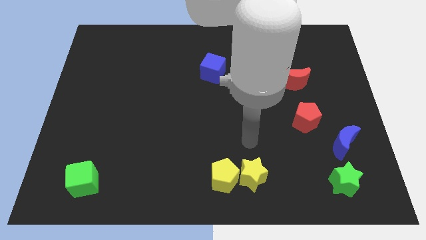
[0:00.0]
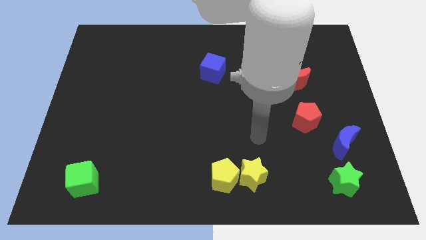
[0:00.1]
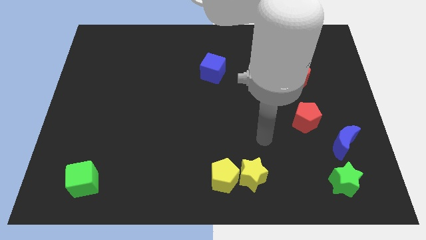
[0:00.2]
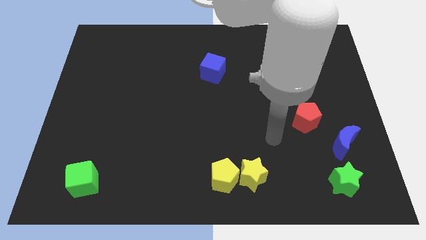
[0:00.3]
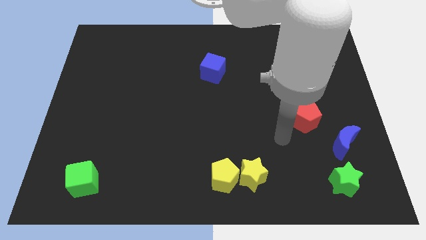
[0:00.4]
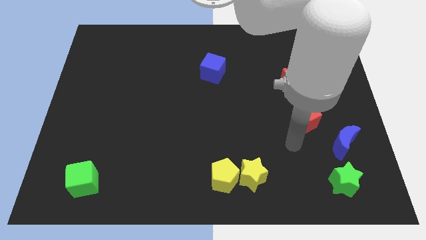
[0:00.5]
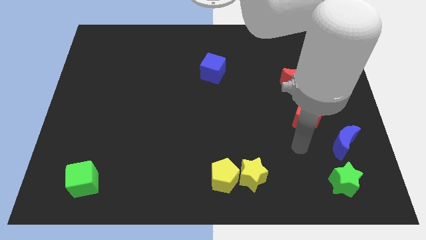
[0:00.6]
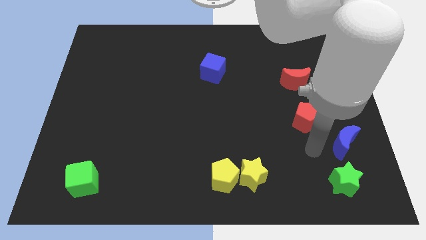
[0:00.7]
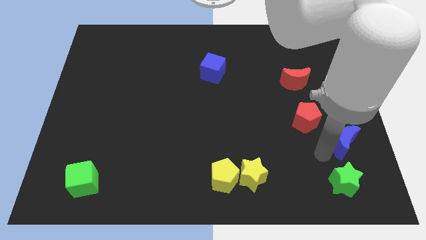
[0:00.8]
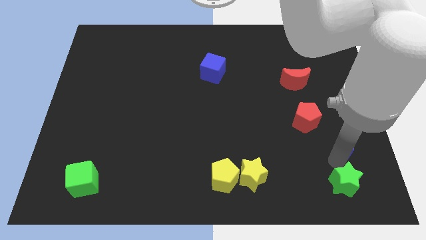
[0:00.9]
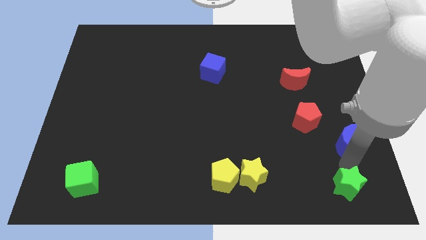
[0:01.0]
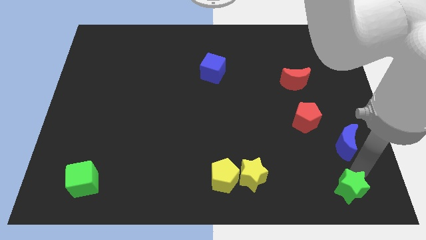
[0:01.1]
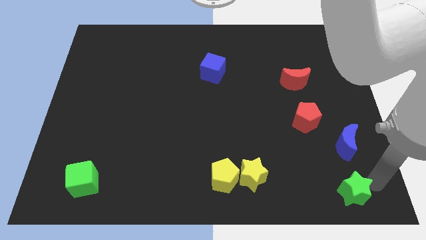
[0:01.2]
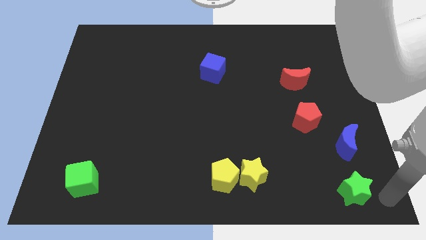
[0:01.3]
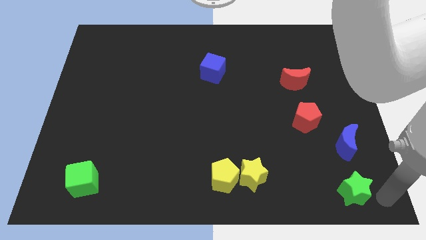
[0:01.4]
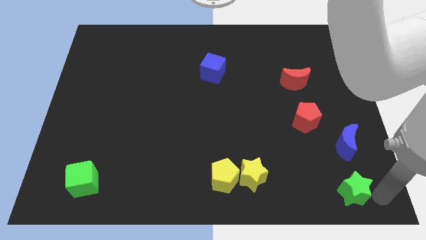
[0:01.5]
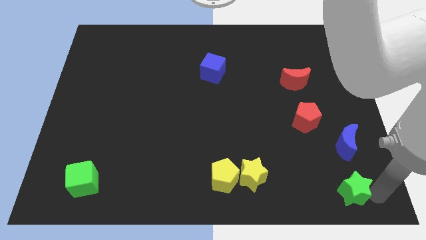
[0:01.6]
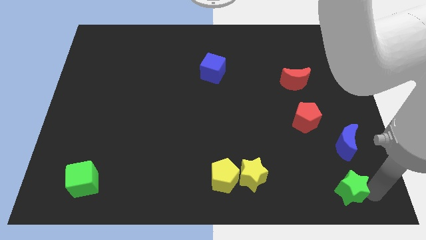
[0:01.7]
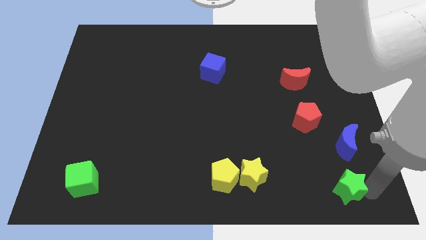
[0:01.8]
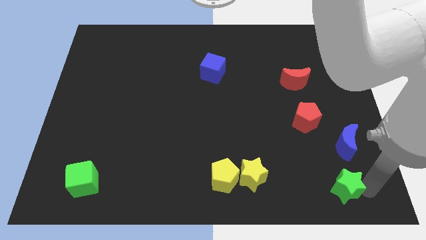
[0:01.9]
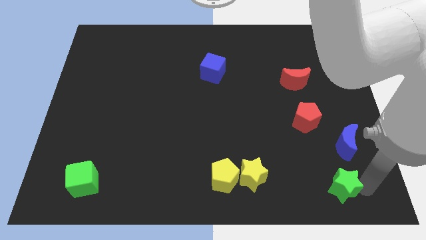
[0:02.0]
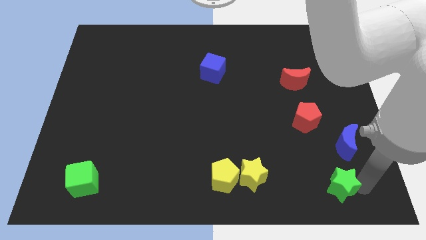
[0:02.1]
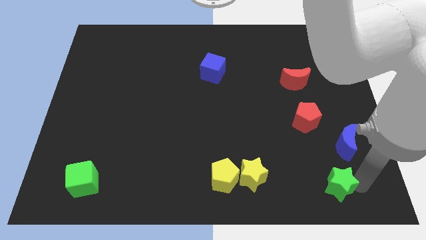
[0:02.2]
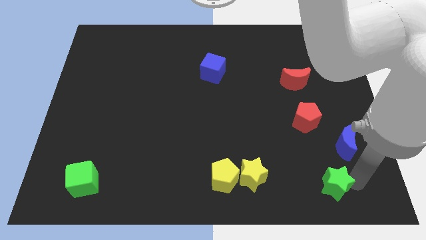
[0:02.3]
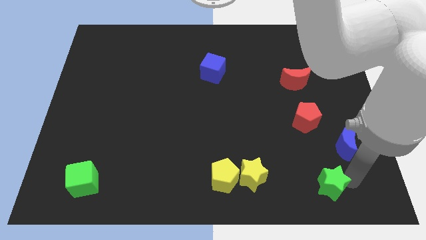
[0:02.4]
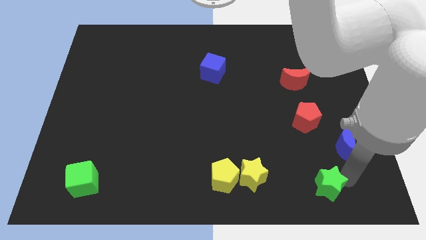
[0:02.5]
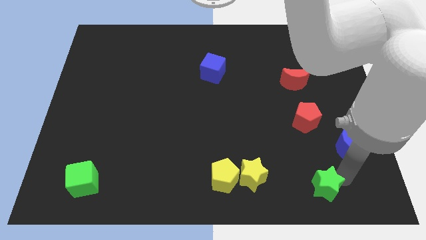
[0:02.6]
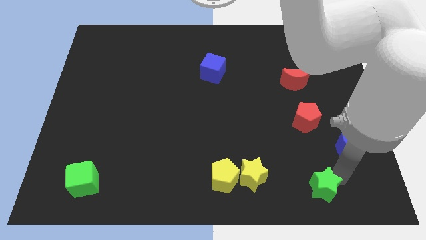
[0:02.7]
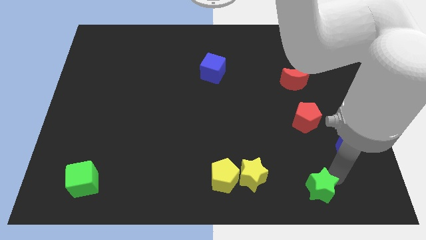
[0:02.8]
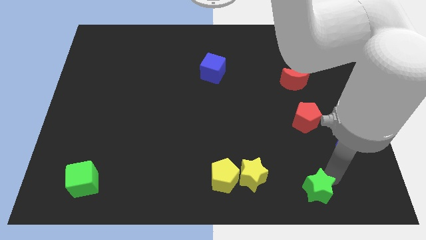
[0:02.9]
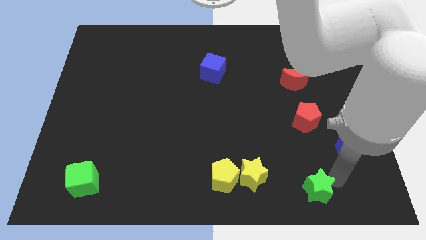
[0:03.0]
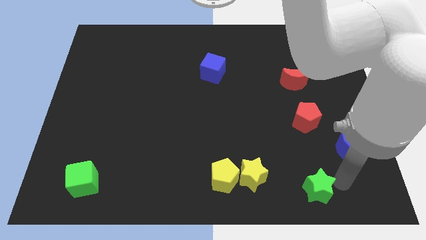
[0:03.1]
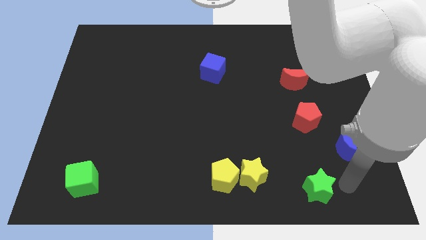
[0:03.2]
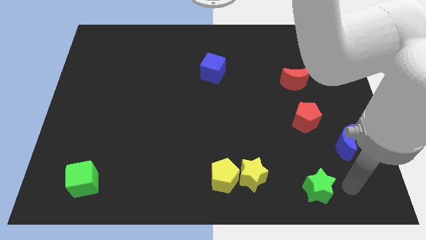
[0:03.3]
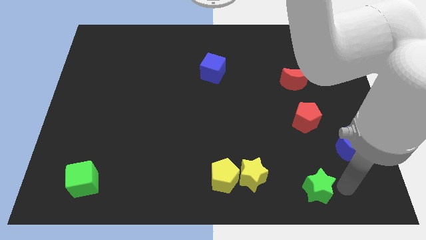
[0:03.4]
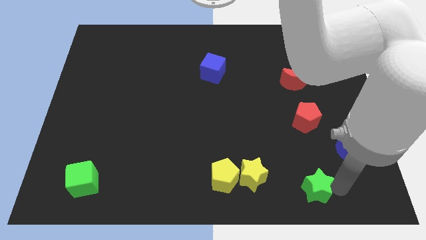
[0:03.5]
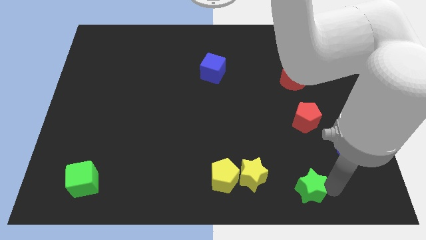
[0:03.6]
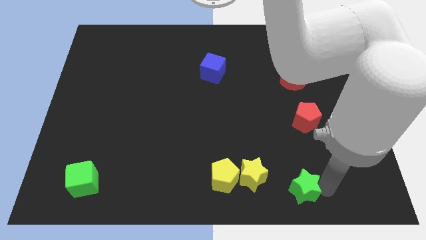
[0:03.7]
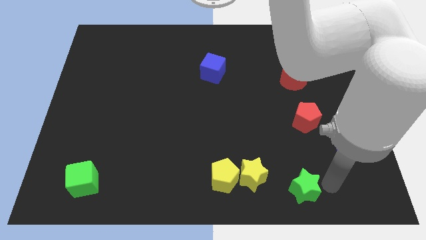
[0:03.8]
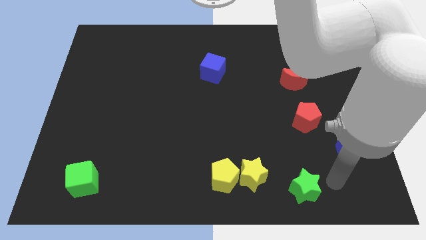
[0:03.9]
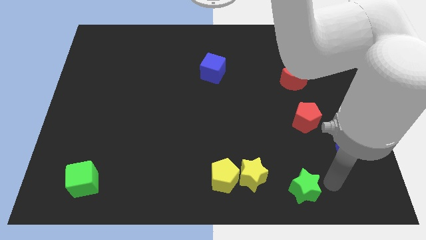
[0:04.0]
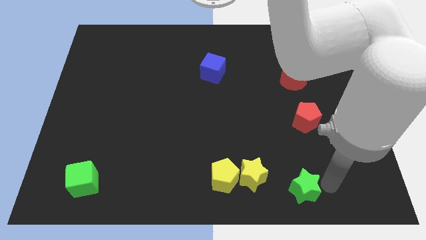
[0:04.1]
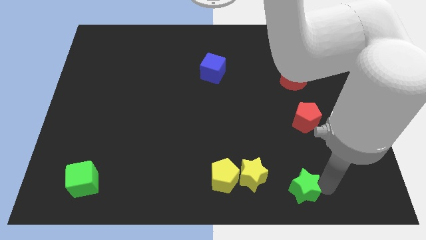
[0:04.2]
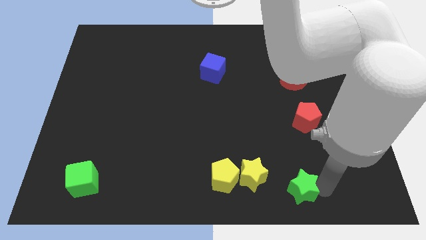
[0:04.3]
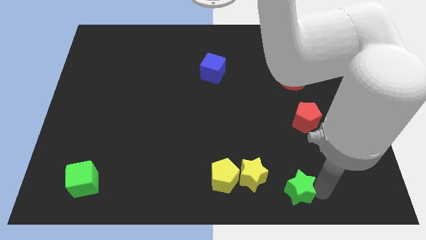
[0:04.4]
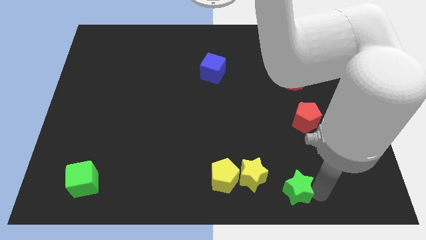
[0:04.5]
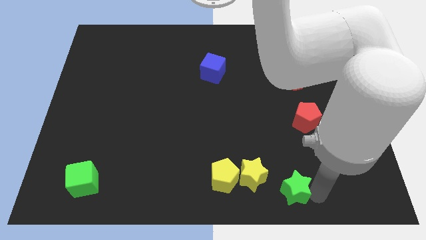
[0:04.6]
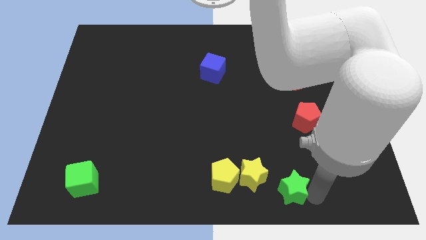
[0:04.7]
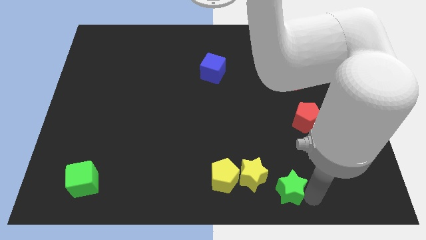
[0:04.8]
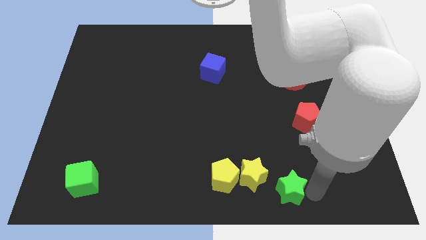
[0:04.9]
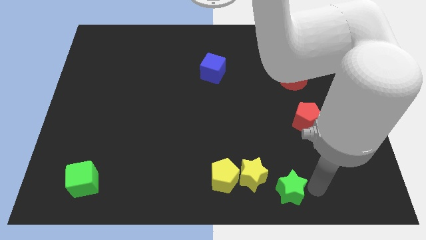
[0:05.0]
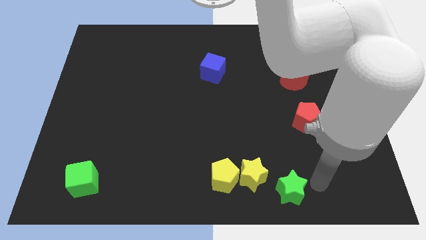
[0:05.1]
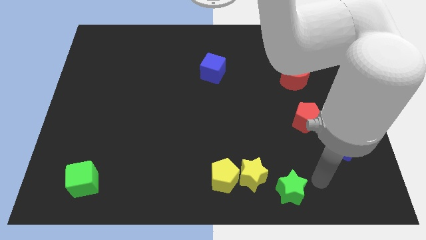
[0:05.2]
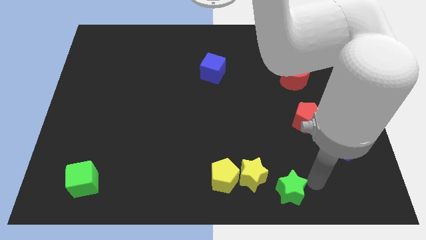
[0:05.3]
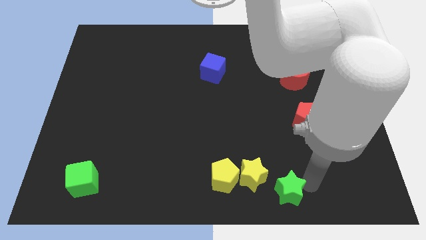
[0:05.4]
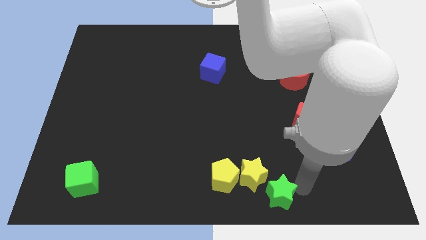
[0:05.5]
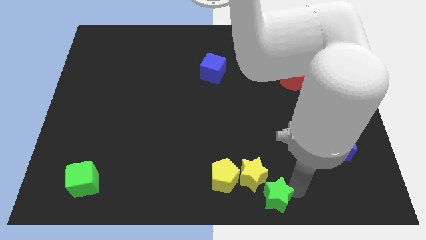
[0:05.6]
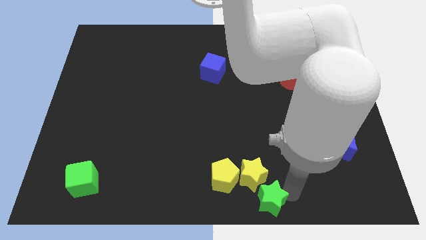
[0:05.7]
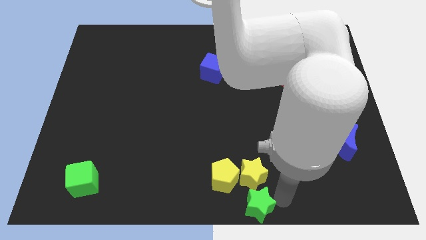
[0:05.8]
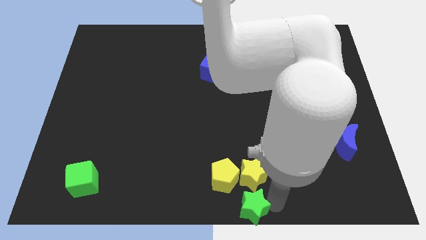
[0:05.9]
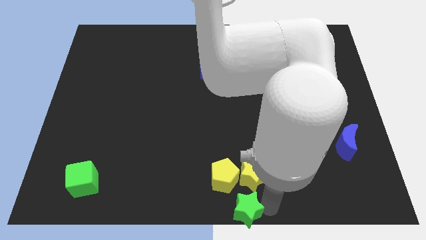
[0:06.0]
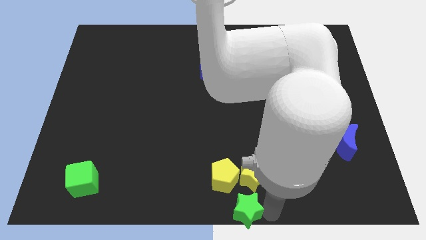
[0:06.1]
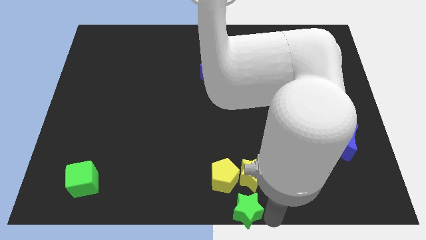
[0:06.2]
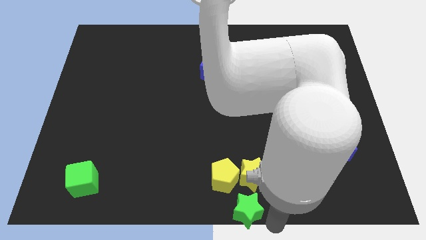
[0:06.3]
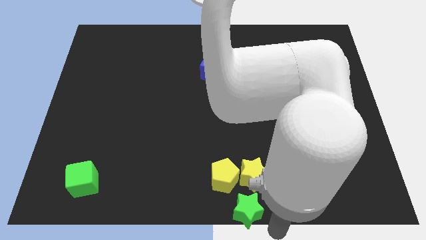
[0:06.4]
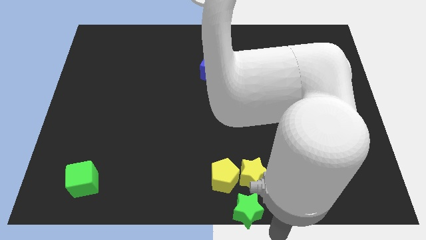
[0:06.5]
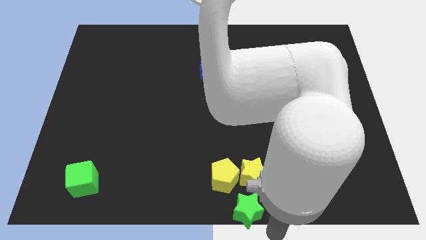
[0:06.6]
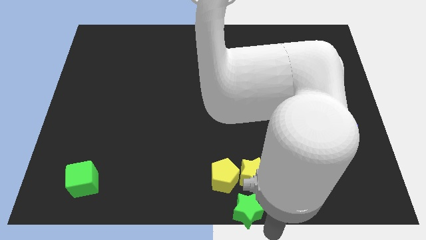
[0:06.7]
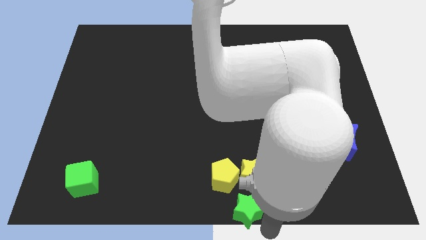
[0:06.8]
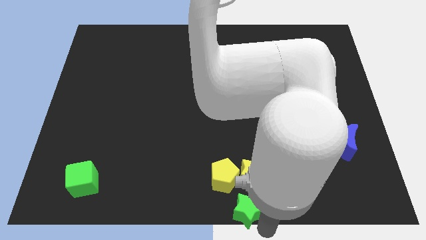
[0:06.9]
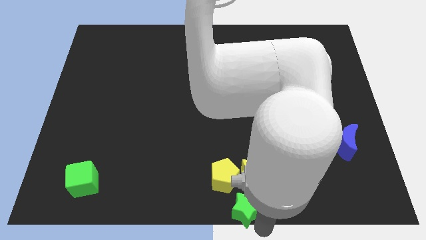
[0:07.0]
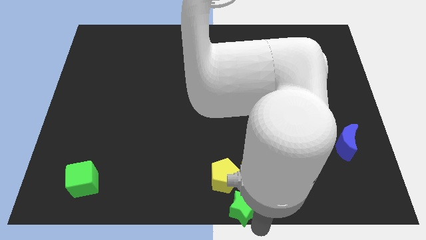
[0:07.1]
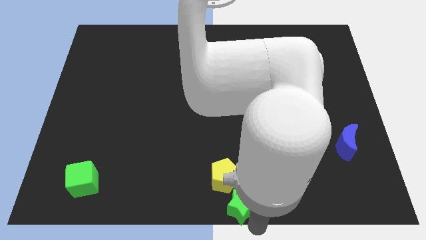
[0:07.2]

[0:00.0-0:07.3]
push the green star to the left

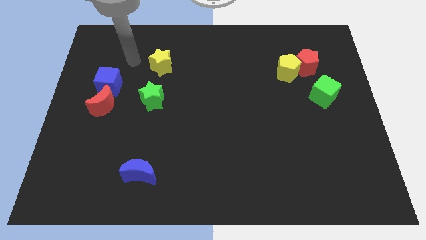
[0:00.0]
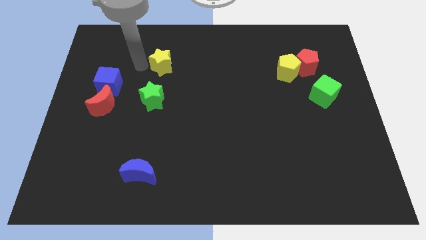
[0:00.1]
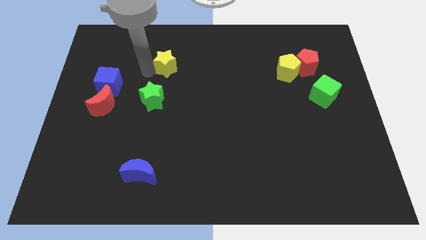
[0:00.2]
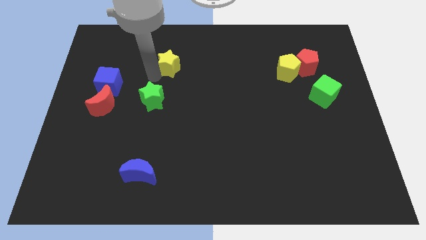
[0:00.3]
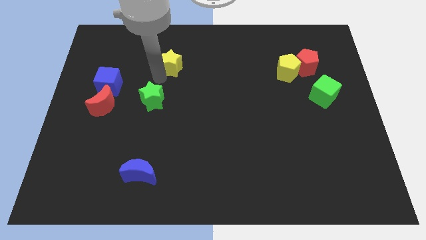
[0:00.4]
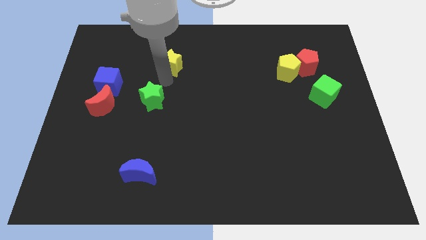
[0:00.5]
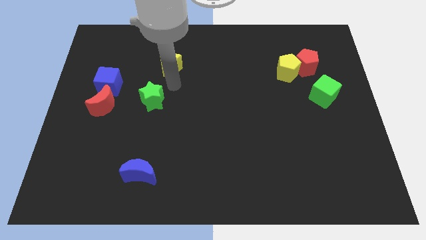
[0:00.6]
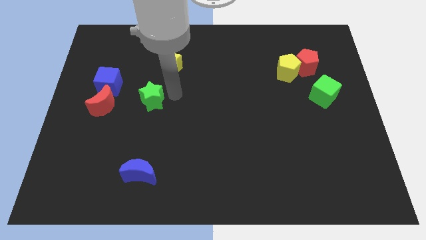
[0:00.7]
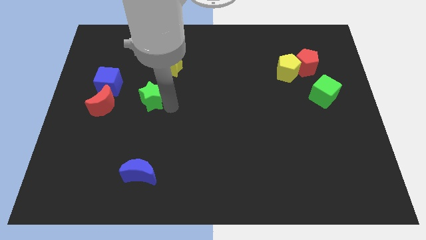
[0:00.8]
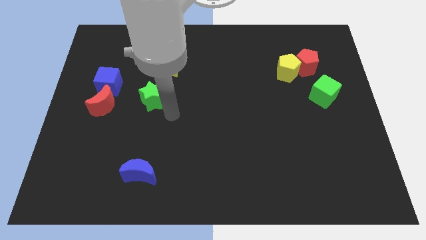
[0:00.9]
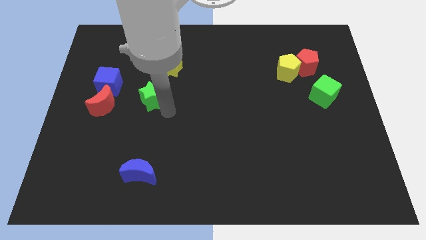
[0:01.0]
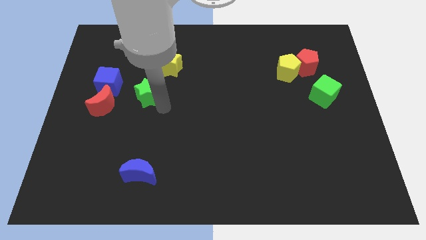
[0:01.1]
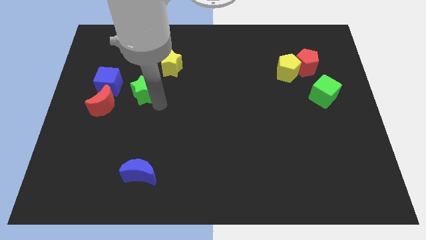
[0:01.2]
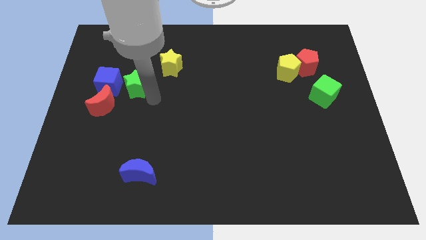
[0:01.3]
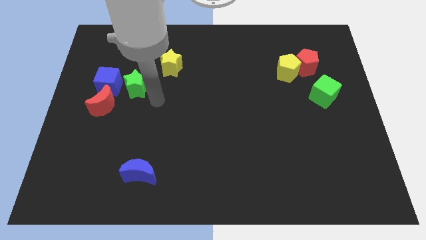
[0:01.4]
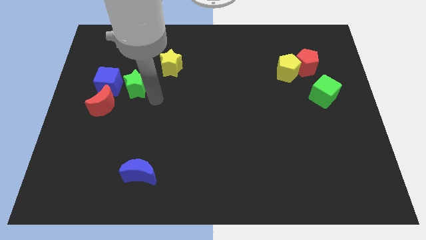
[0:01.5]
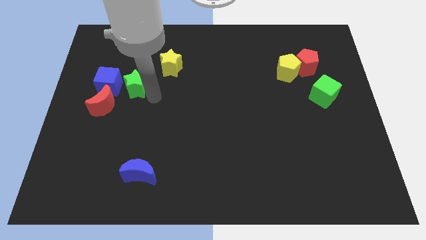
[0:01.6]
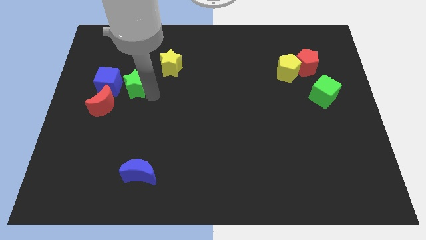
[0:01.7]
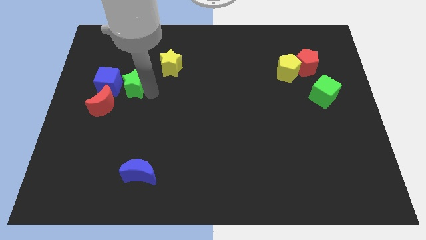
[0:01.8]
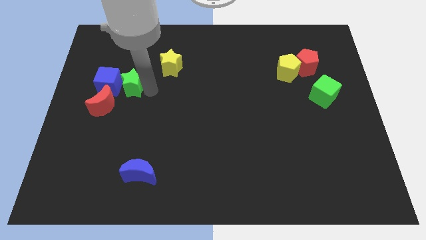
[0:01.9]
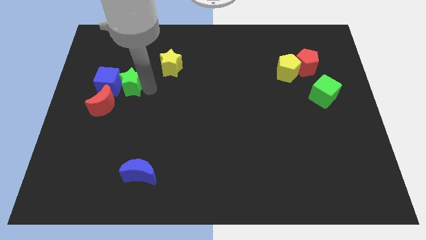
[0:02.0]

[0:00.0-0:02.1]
slide the green star upwards and left diagonally a bit
